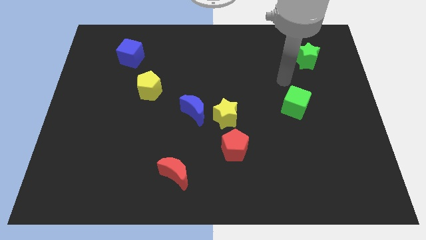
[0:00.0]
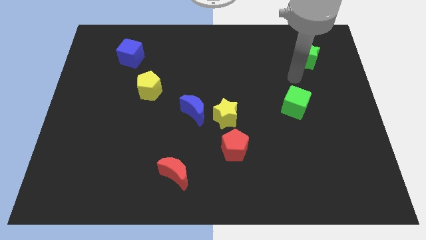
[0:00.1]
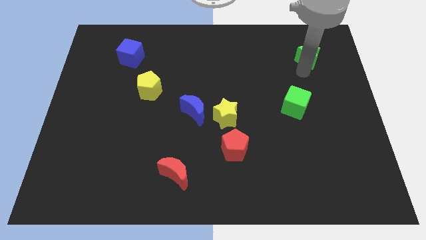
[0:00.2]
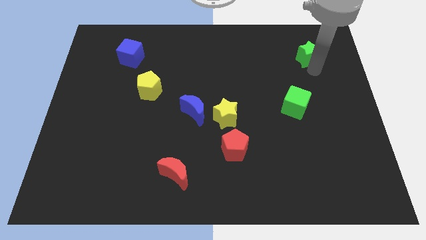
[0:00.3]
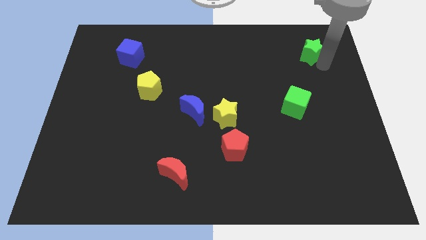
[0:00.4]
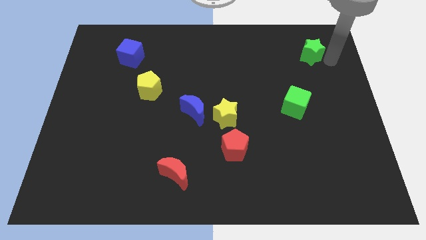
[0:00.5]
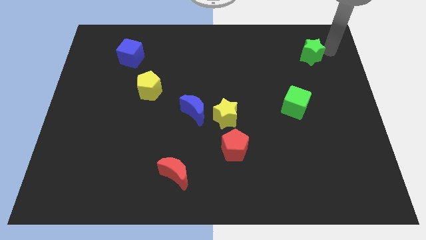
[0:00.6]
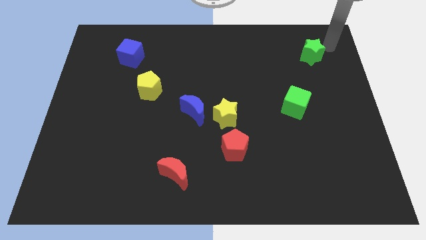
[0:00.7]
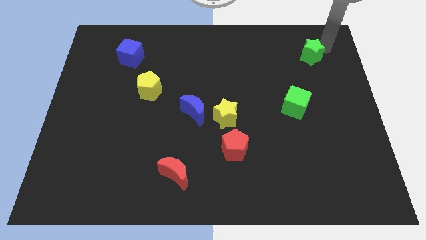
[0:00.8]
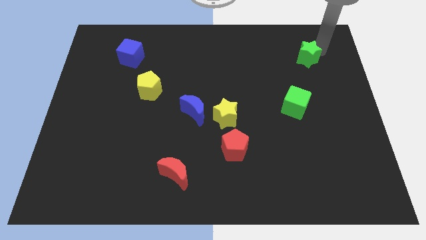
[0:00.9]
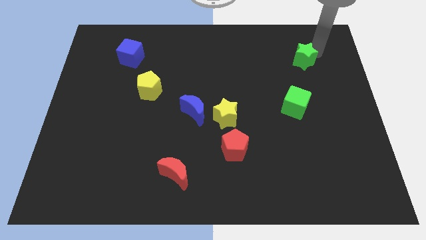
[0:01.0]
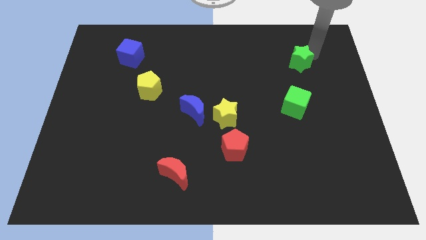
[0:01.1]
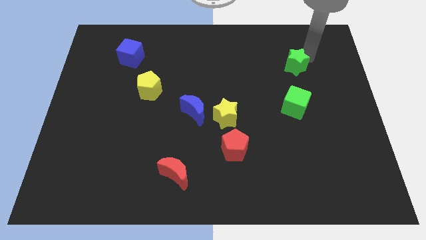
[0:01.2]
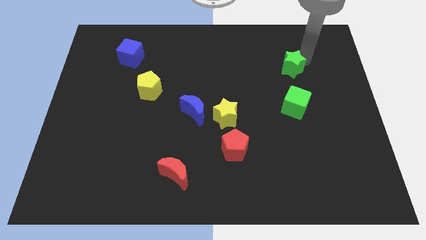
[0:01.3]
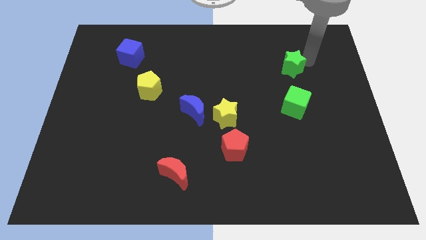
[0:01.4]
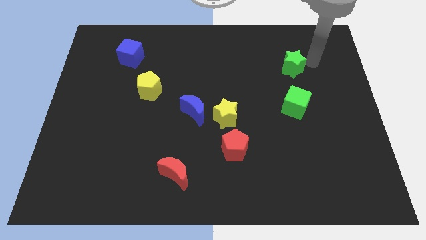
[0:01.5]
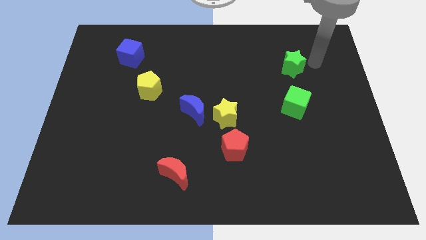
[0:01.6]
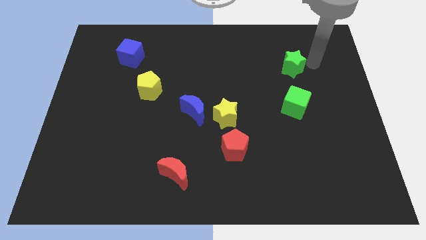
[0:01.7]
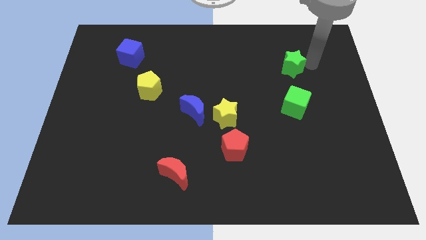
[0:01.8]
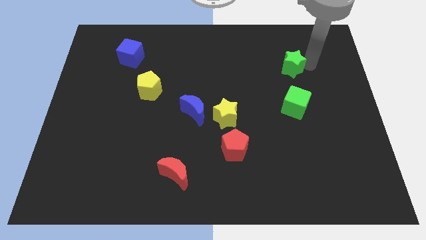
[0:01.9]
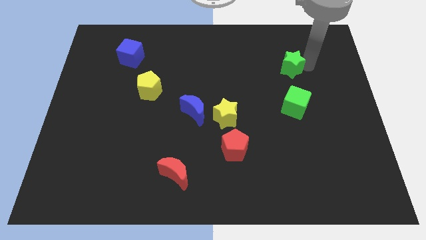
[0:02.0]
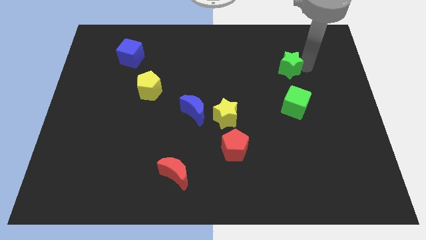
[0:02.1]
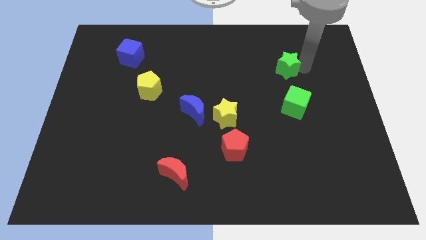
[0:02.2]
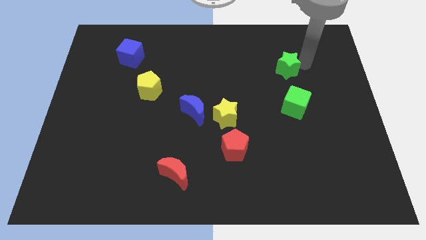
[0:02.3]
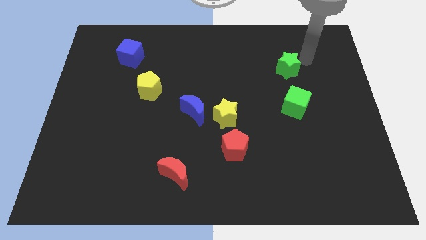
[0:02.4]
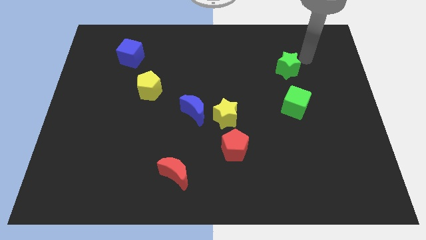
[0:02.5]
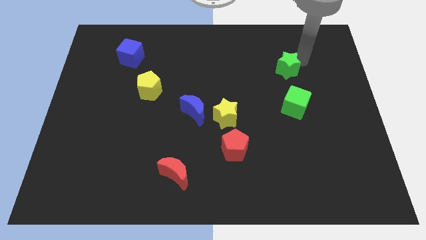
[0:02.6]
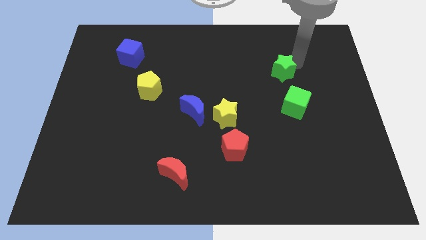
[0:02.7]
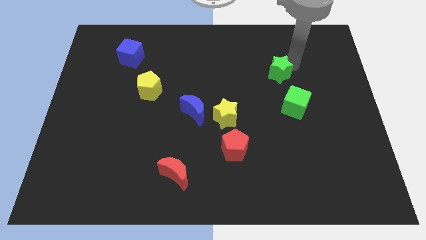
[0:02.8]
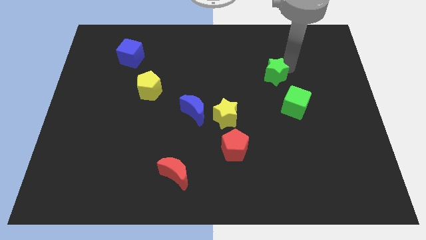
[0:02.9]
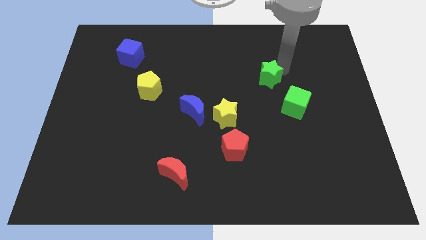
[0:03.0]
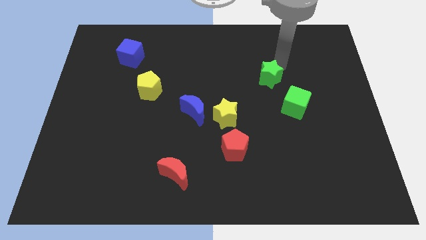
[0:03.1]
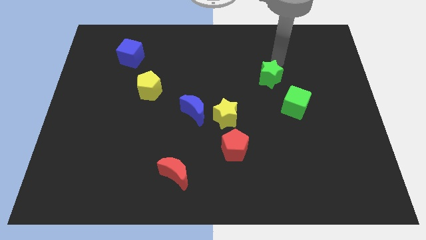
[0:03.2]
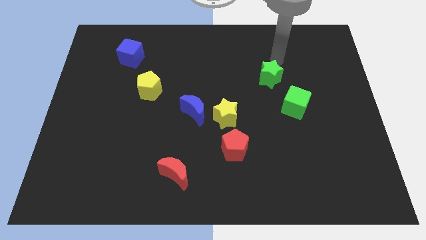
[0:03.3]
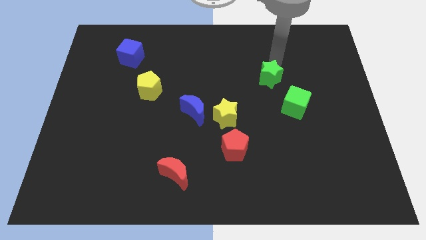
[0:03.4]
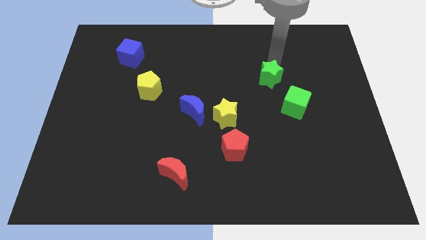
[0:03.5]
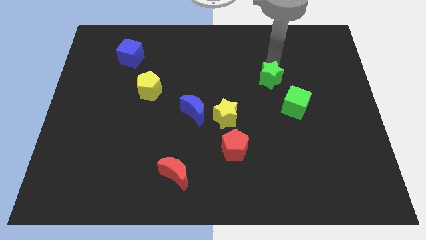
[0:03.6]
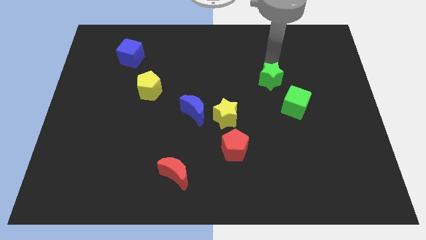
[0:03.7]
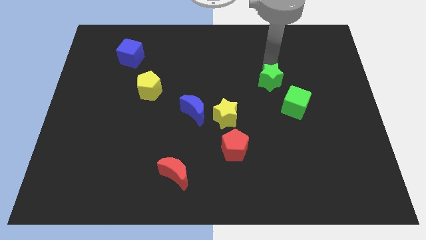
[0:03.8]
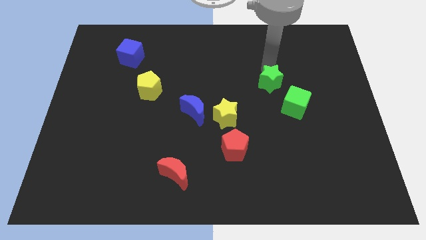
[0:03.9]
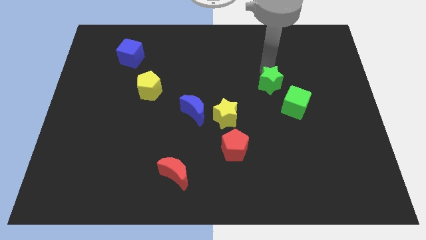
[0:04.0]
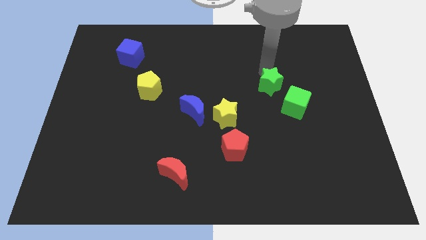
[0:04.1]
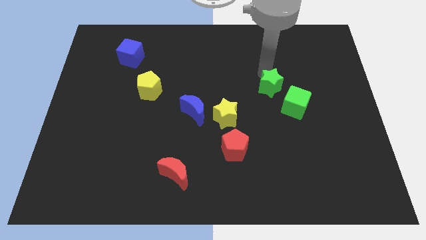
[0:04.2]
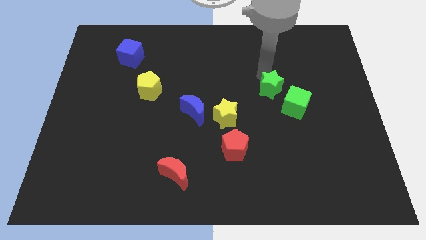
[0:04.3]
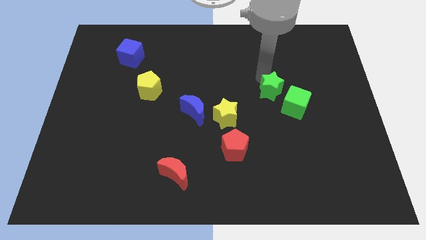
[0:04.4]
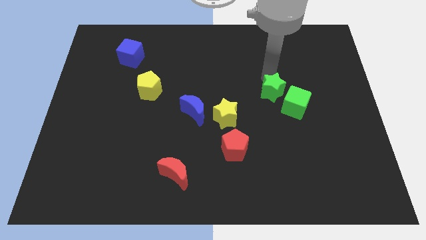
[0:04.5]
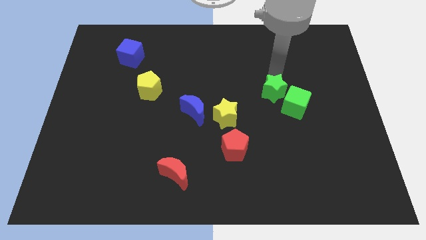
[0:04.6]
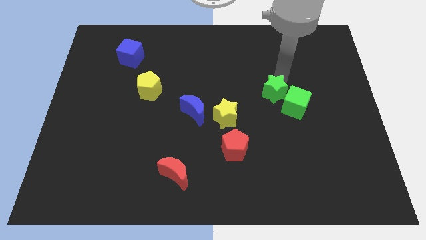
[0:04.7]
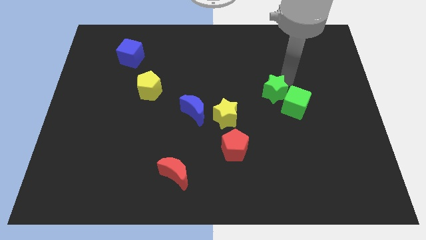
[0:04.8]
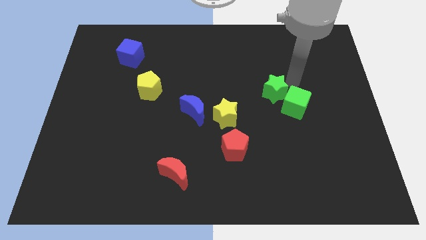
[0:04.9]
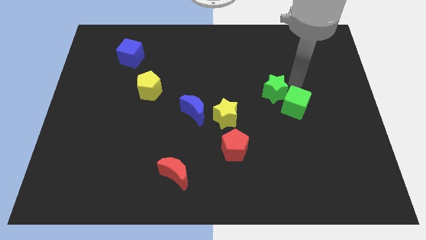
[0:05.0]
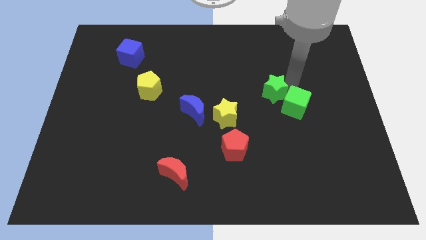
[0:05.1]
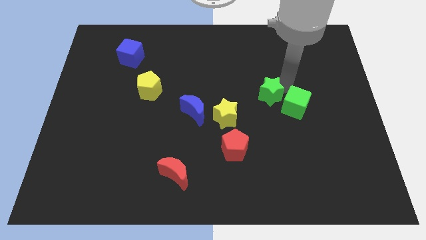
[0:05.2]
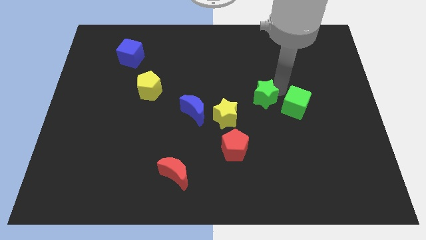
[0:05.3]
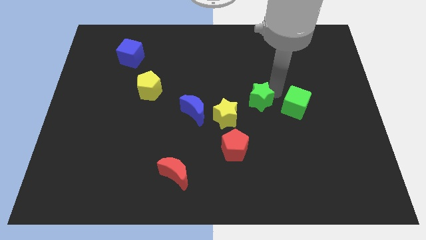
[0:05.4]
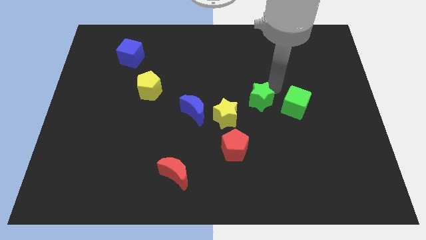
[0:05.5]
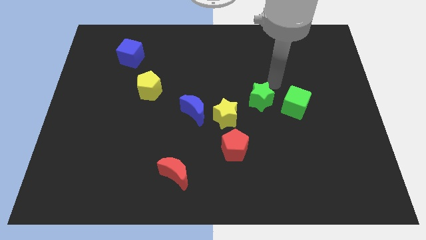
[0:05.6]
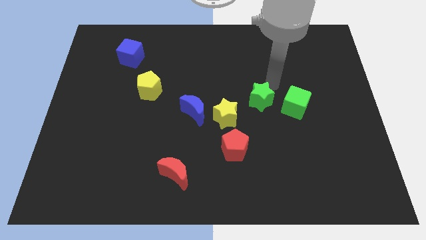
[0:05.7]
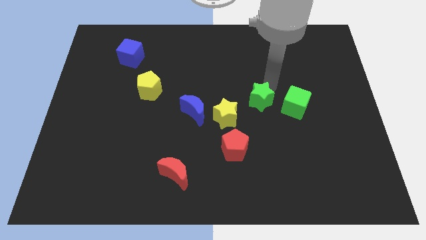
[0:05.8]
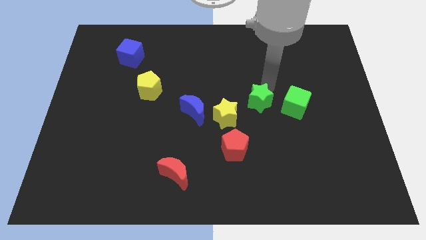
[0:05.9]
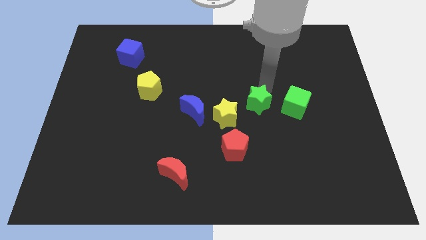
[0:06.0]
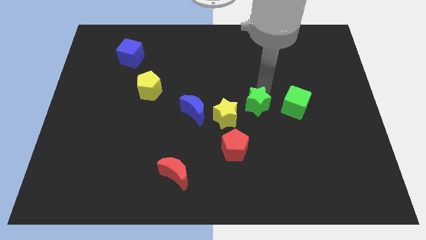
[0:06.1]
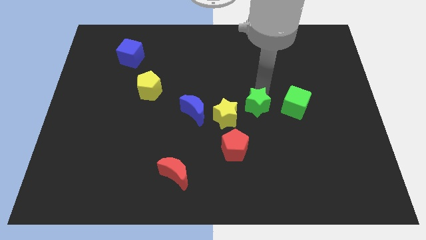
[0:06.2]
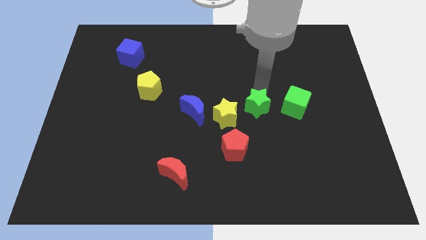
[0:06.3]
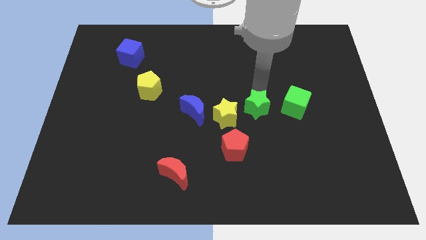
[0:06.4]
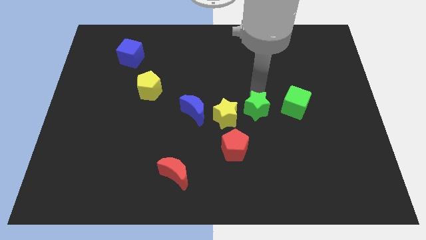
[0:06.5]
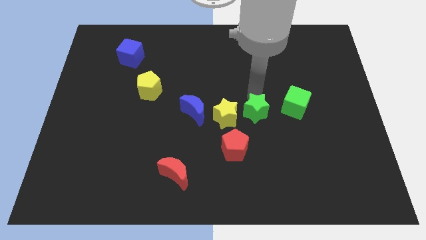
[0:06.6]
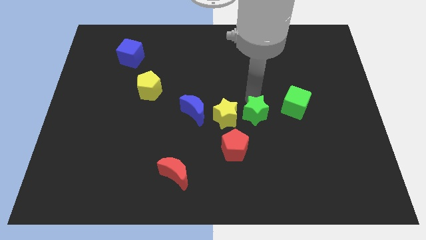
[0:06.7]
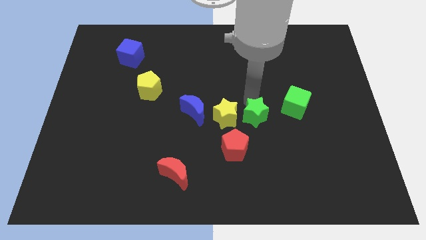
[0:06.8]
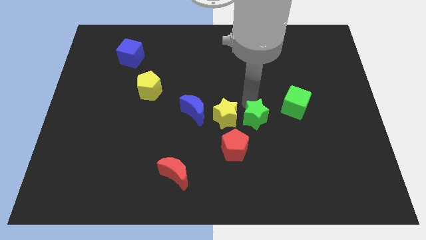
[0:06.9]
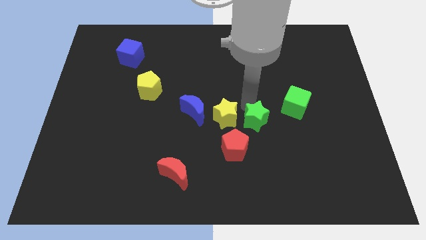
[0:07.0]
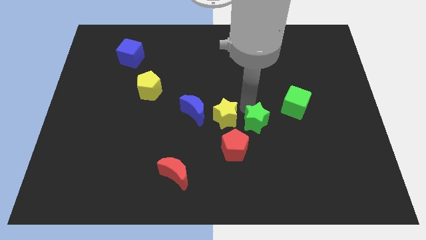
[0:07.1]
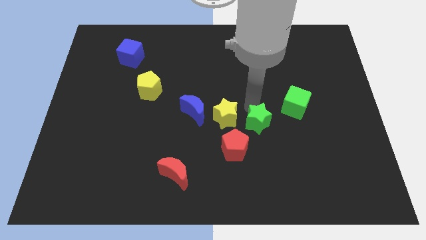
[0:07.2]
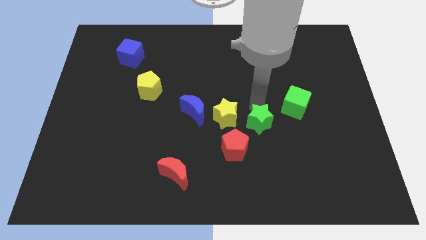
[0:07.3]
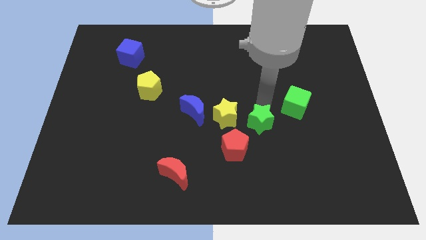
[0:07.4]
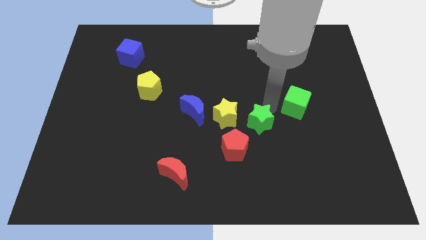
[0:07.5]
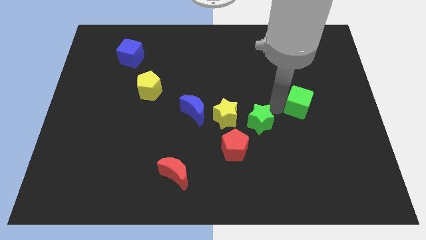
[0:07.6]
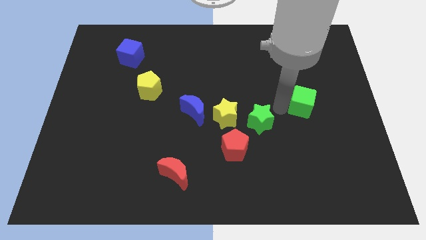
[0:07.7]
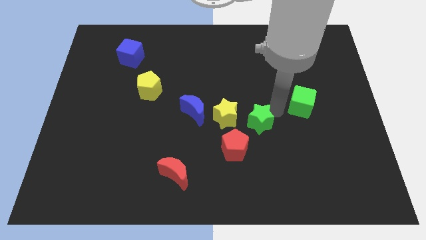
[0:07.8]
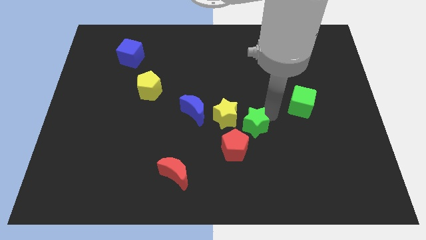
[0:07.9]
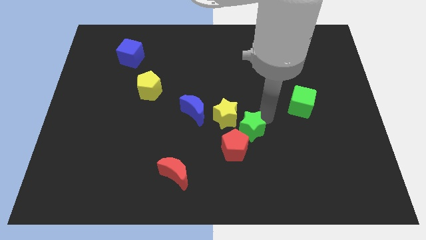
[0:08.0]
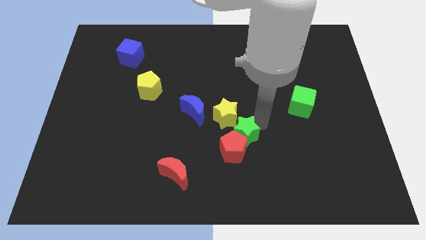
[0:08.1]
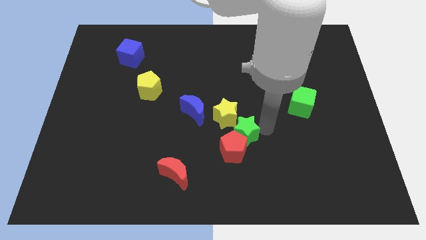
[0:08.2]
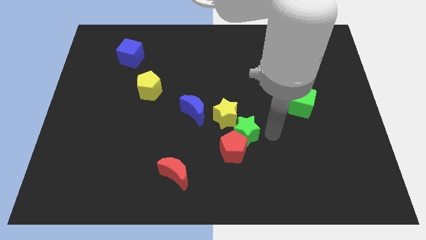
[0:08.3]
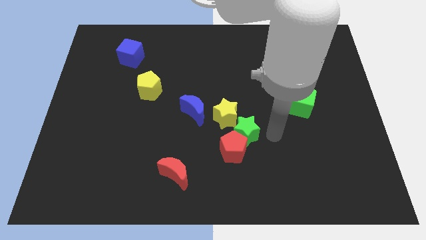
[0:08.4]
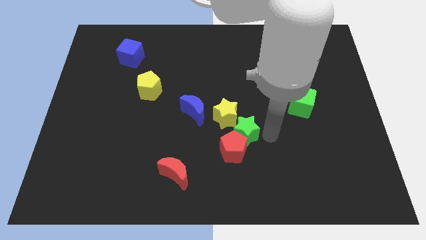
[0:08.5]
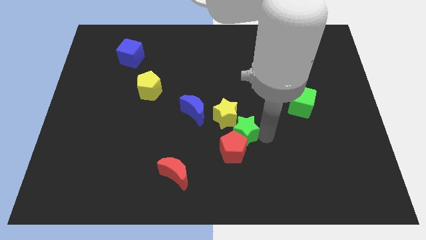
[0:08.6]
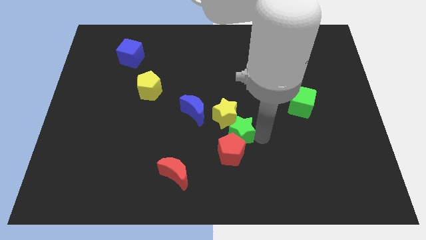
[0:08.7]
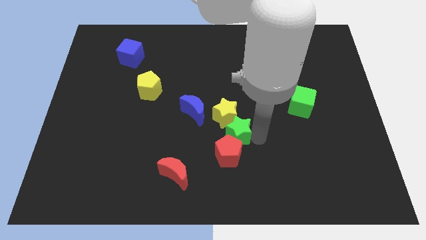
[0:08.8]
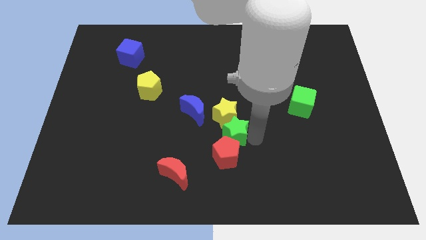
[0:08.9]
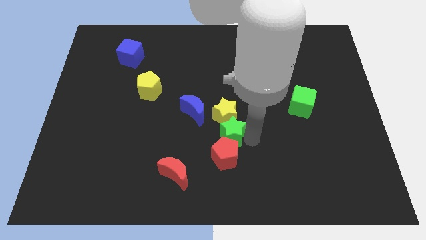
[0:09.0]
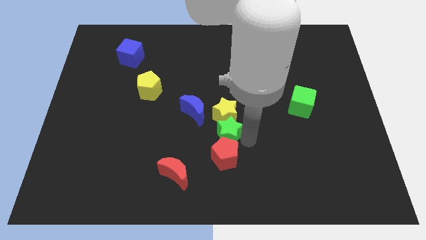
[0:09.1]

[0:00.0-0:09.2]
move the green star to the top left of the red pentagon
